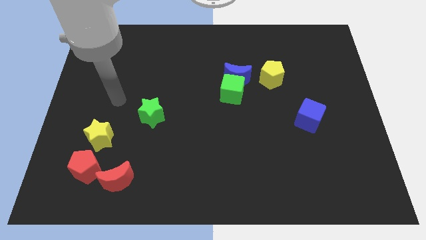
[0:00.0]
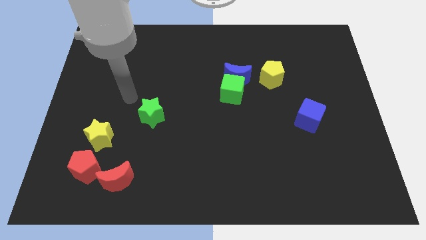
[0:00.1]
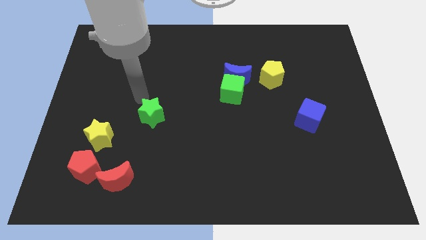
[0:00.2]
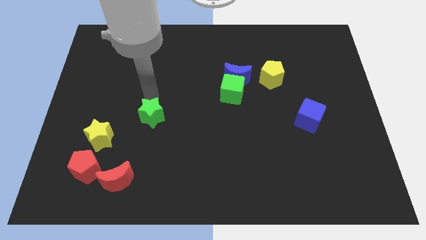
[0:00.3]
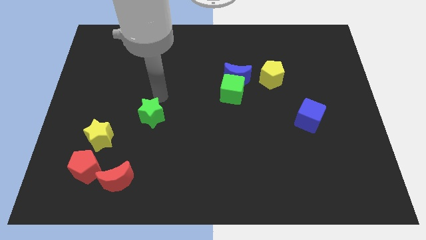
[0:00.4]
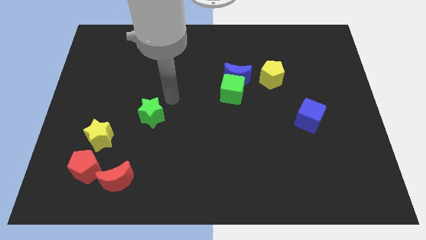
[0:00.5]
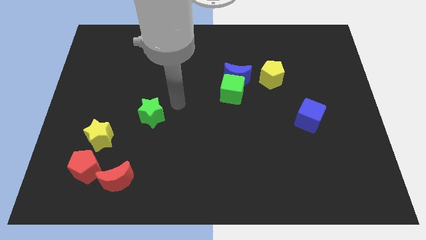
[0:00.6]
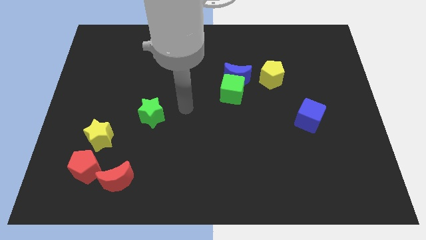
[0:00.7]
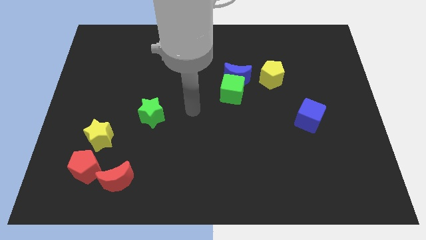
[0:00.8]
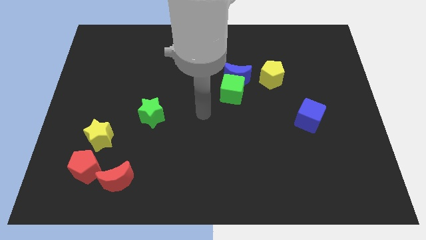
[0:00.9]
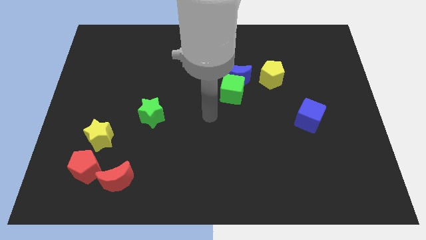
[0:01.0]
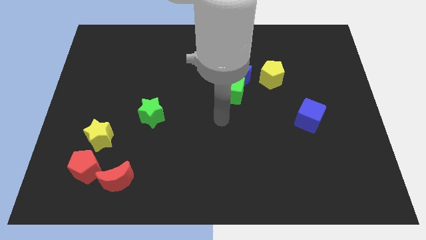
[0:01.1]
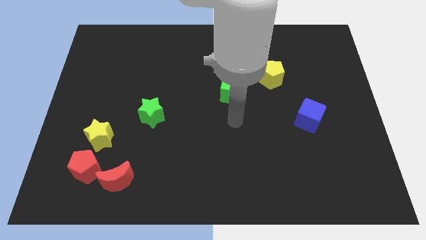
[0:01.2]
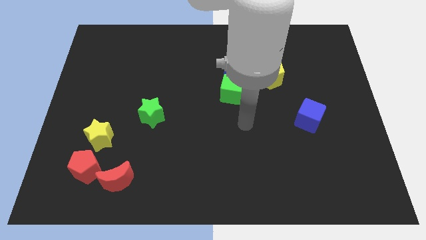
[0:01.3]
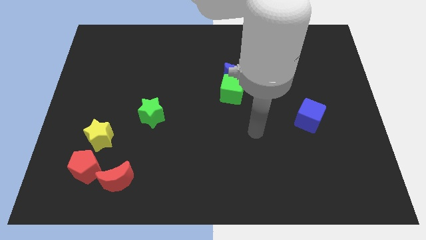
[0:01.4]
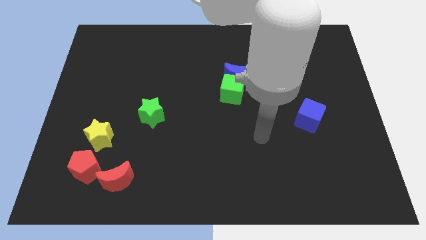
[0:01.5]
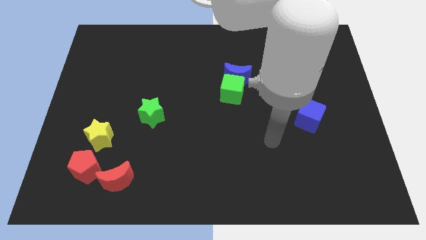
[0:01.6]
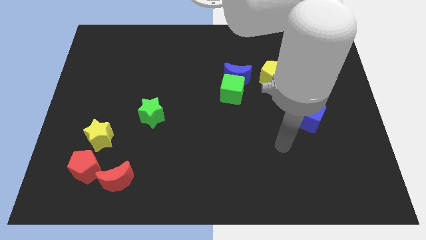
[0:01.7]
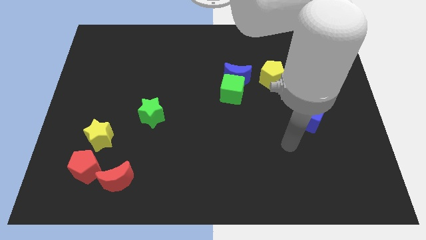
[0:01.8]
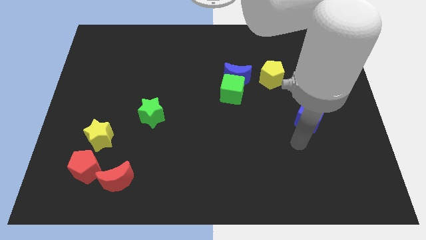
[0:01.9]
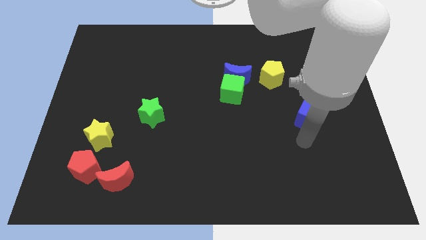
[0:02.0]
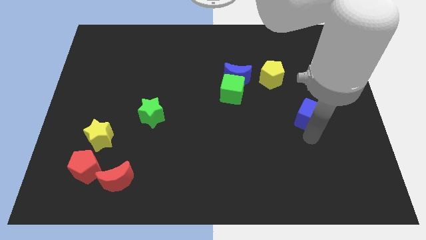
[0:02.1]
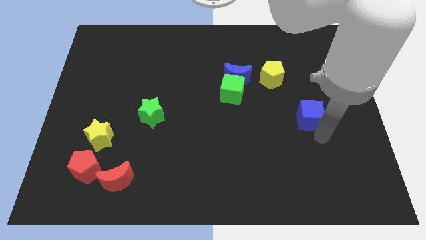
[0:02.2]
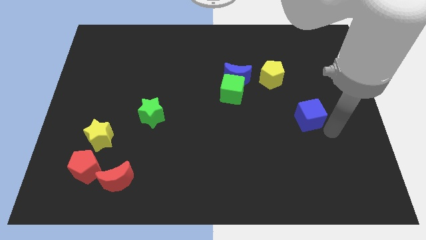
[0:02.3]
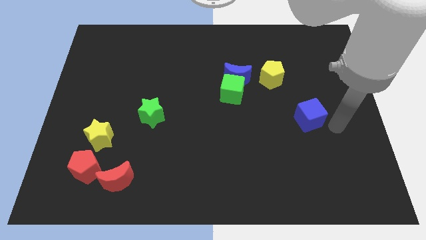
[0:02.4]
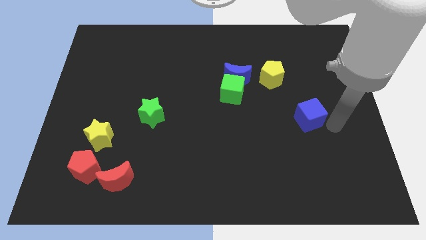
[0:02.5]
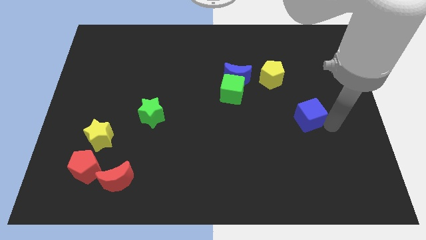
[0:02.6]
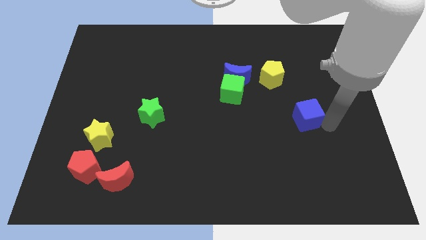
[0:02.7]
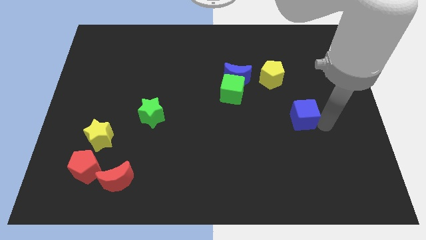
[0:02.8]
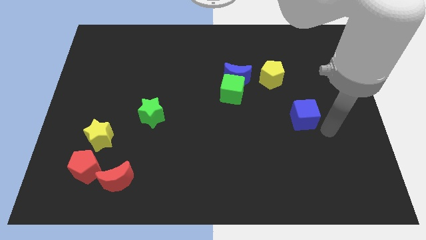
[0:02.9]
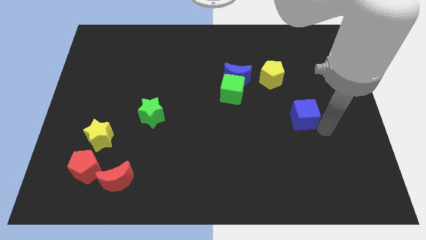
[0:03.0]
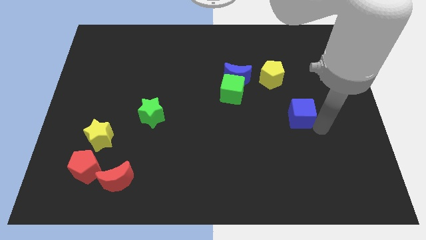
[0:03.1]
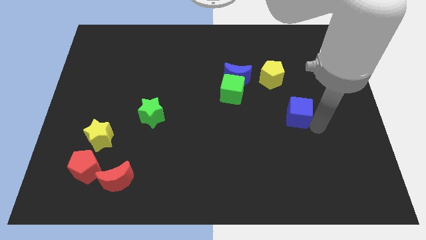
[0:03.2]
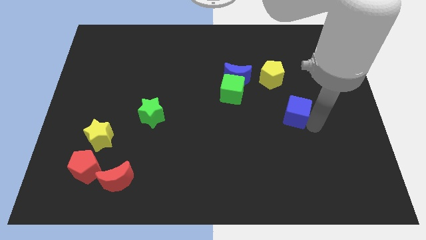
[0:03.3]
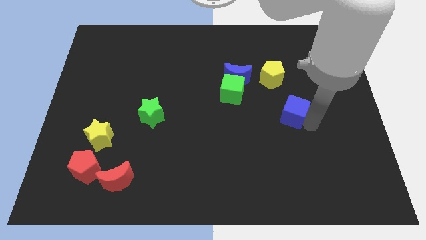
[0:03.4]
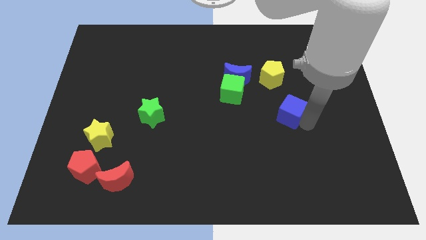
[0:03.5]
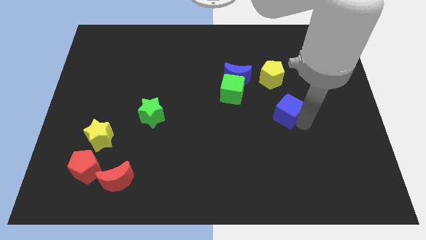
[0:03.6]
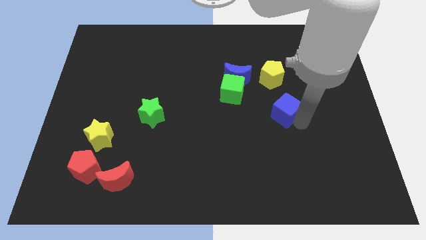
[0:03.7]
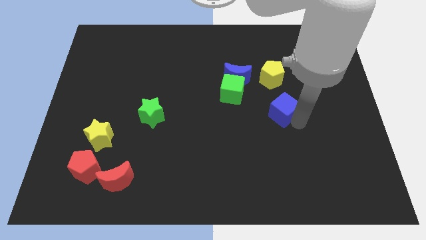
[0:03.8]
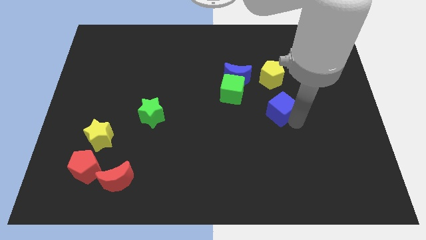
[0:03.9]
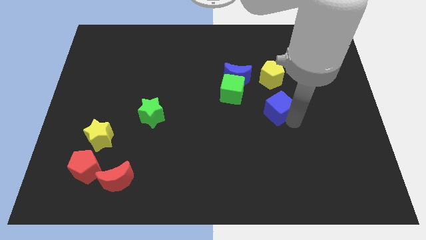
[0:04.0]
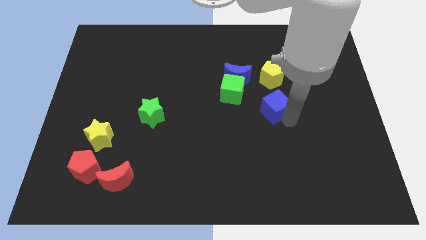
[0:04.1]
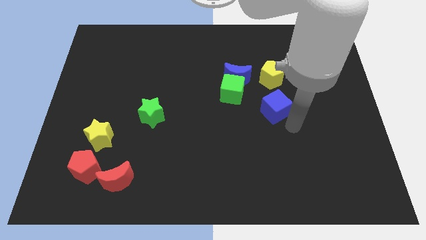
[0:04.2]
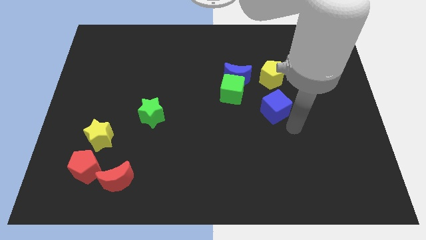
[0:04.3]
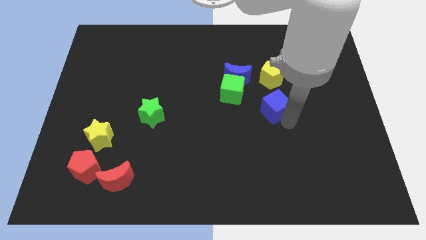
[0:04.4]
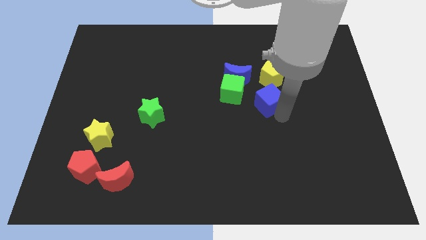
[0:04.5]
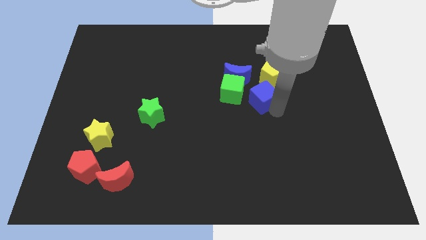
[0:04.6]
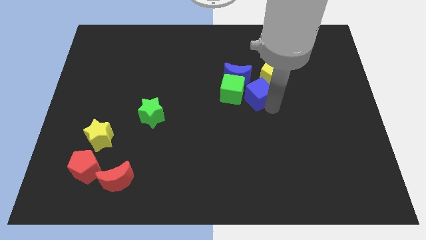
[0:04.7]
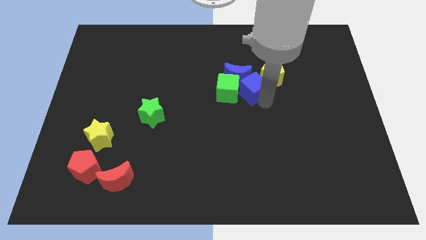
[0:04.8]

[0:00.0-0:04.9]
push the blue cube close to the blue moon

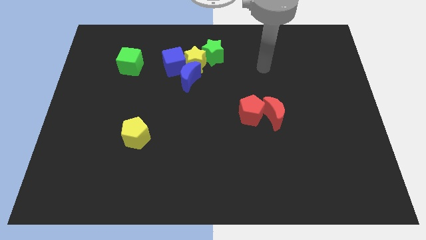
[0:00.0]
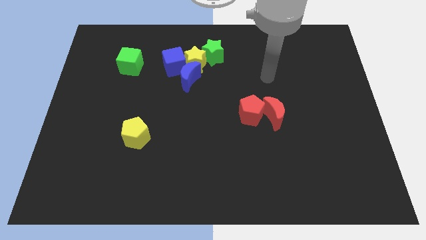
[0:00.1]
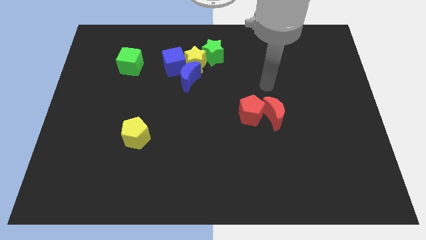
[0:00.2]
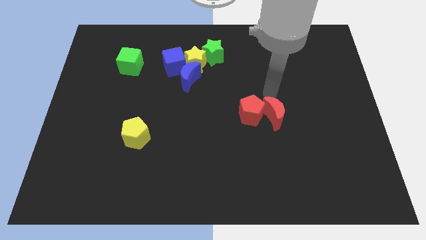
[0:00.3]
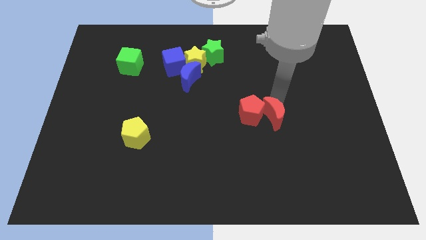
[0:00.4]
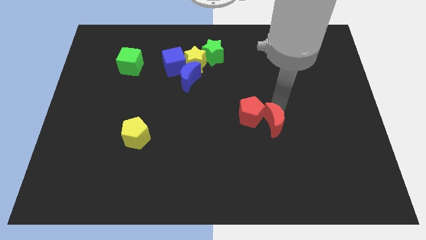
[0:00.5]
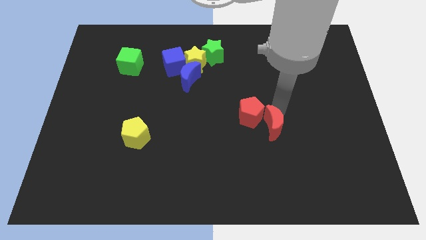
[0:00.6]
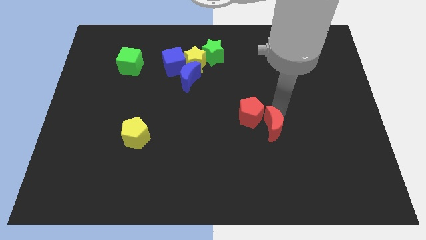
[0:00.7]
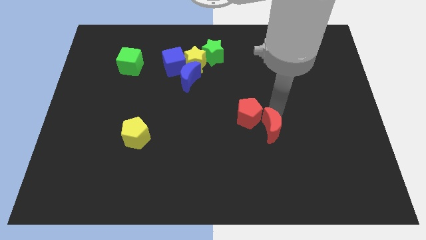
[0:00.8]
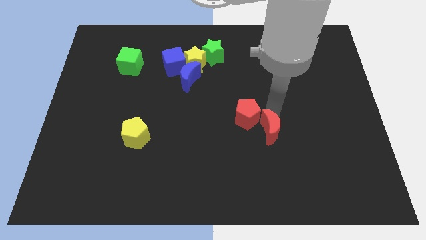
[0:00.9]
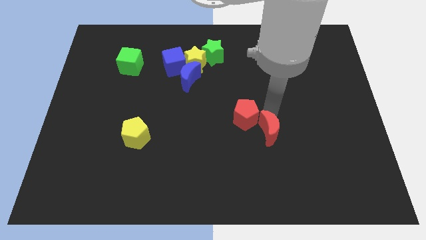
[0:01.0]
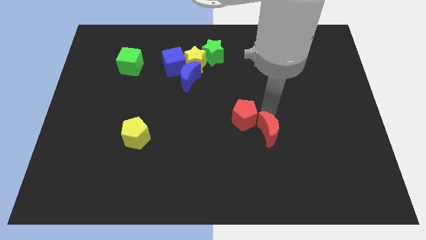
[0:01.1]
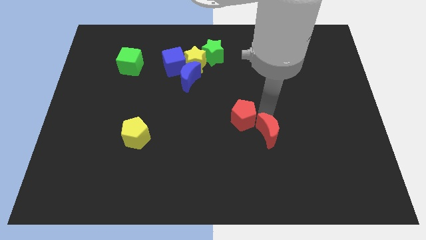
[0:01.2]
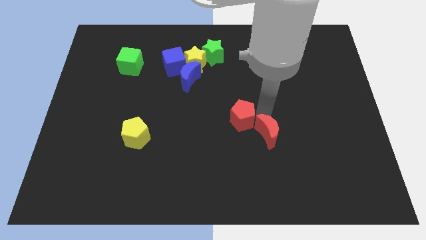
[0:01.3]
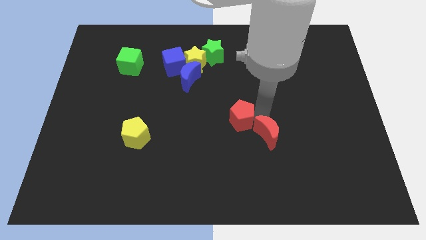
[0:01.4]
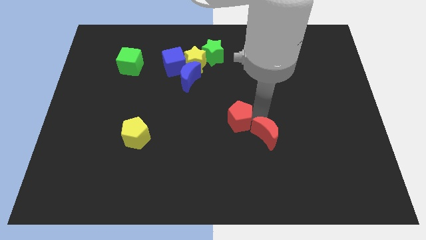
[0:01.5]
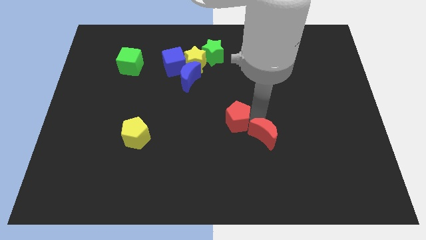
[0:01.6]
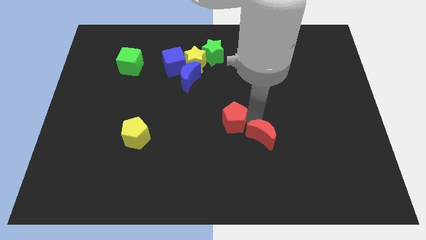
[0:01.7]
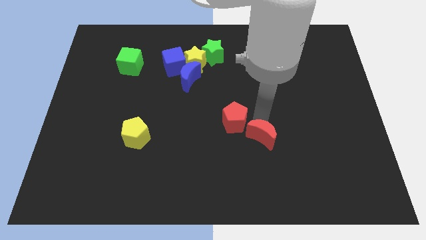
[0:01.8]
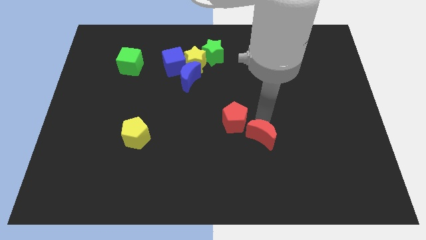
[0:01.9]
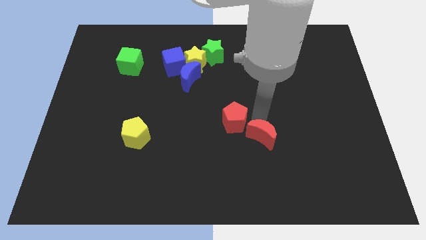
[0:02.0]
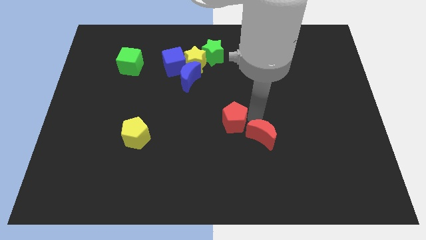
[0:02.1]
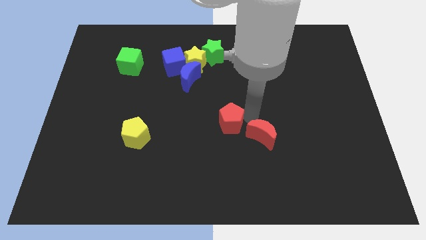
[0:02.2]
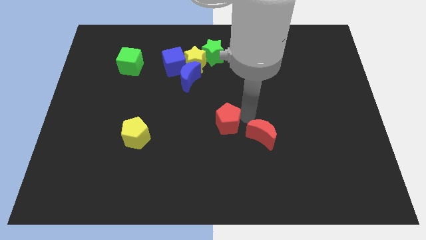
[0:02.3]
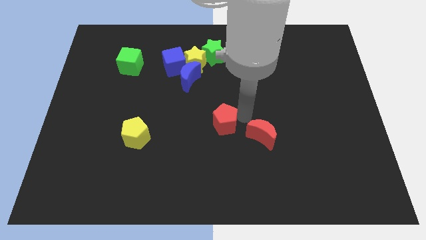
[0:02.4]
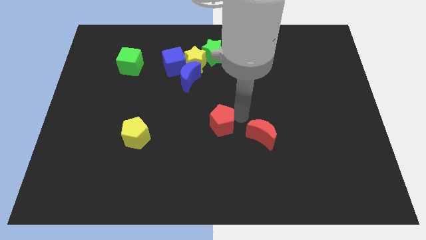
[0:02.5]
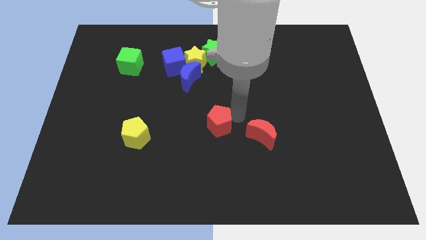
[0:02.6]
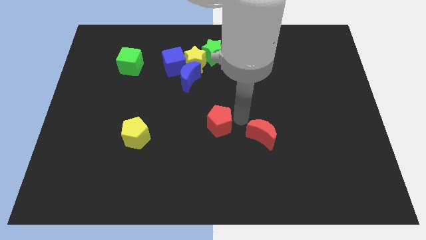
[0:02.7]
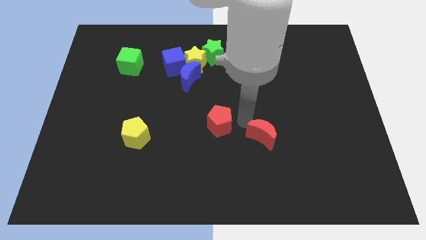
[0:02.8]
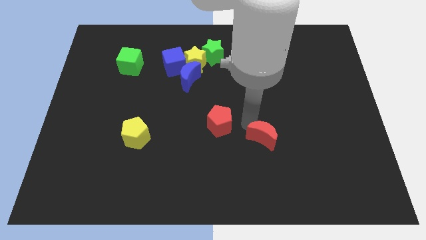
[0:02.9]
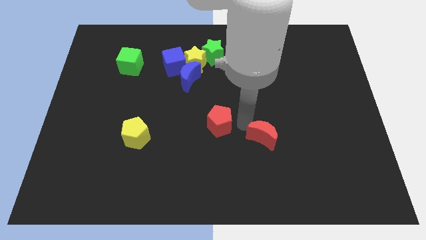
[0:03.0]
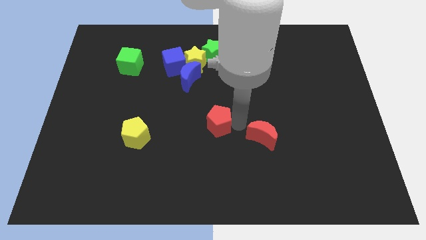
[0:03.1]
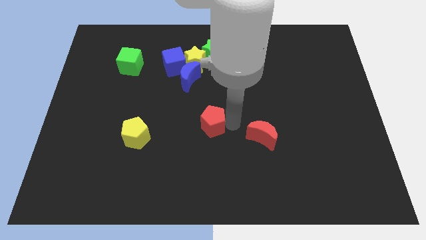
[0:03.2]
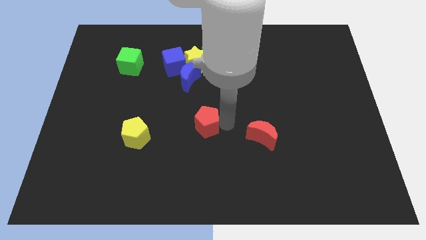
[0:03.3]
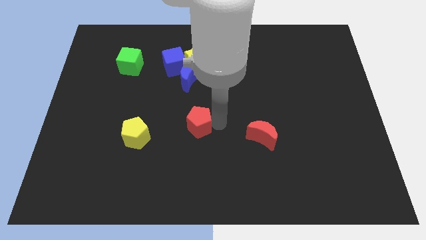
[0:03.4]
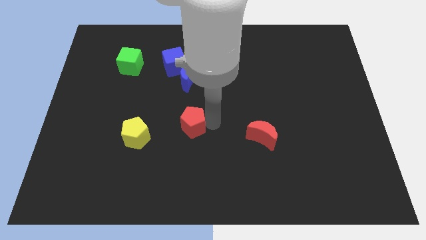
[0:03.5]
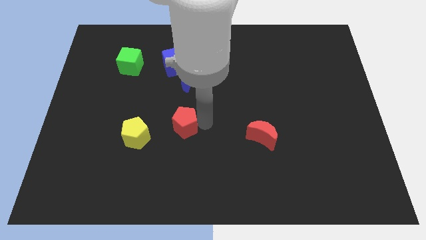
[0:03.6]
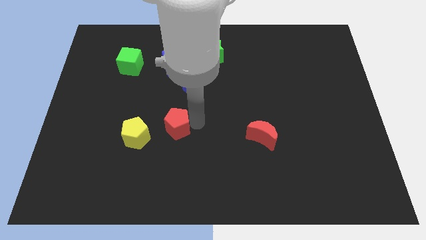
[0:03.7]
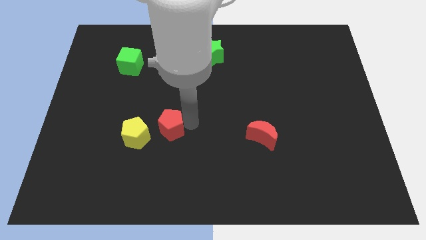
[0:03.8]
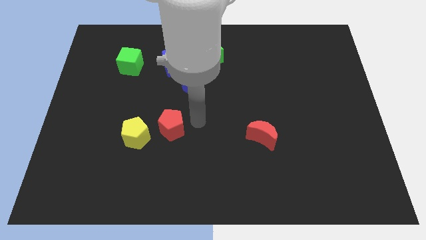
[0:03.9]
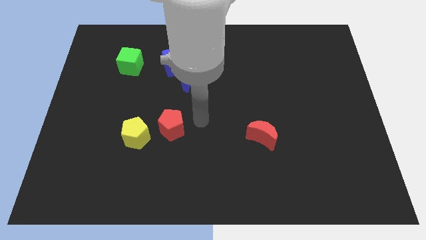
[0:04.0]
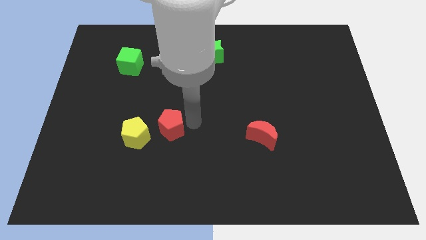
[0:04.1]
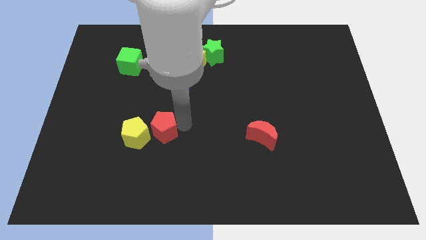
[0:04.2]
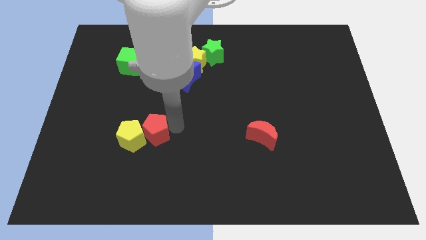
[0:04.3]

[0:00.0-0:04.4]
push the red pentagon towards the yellow pentagon
